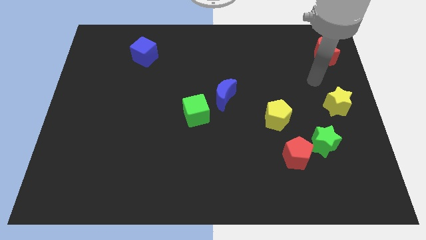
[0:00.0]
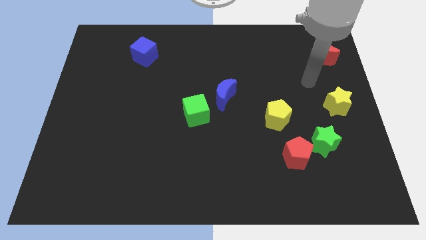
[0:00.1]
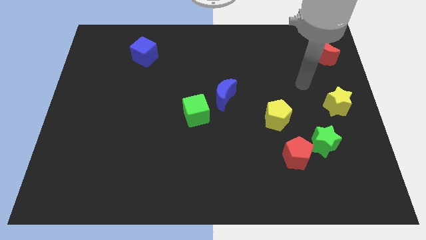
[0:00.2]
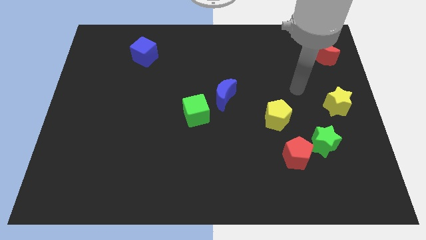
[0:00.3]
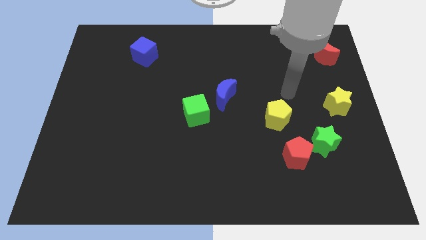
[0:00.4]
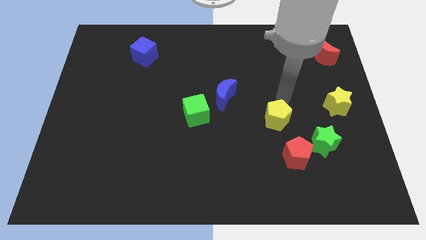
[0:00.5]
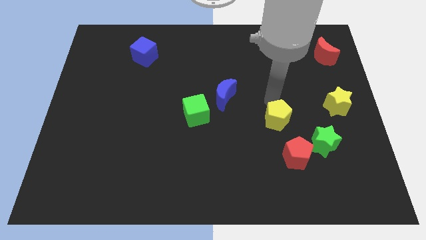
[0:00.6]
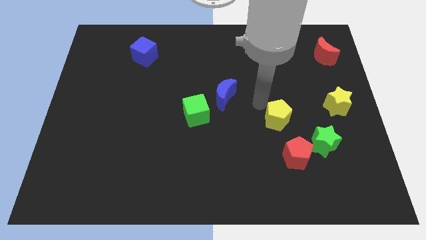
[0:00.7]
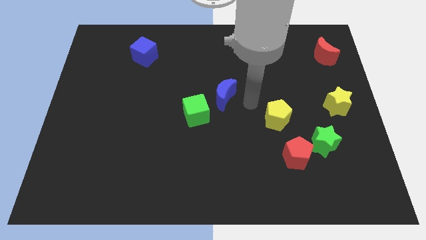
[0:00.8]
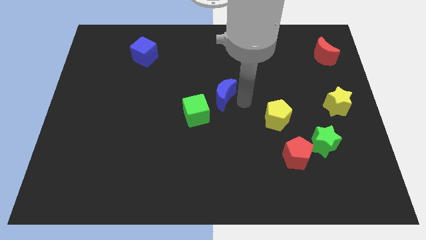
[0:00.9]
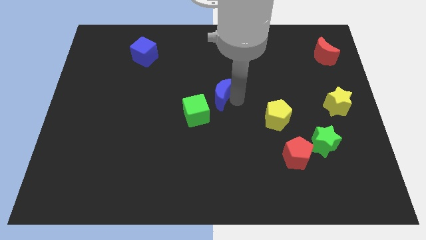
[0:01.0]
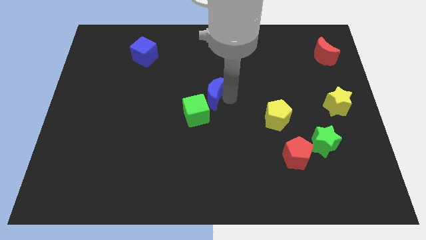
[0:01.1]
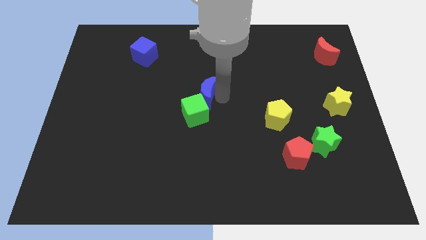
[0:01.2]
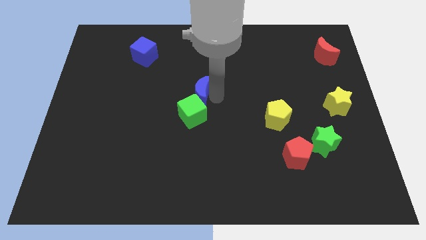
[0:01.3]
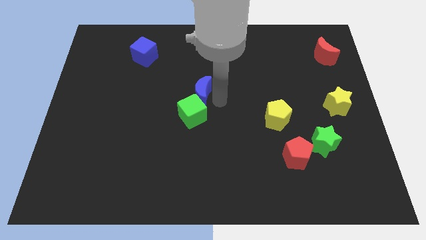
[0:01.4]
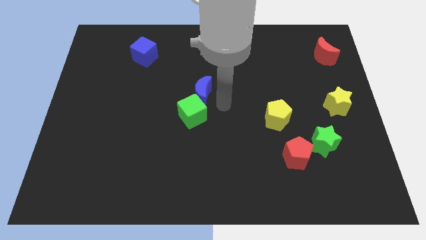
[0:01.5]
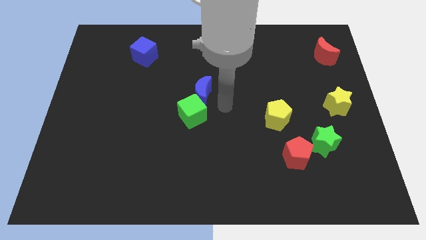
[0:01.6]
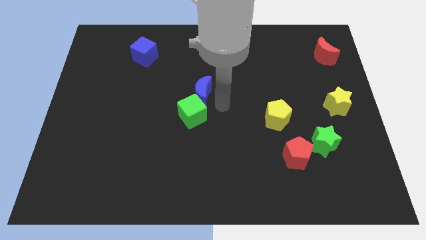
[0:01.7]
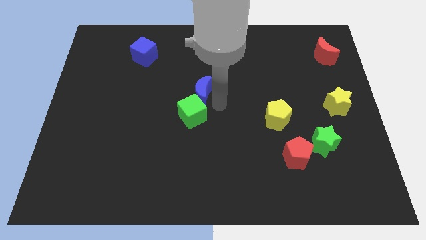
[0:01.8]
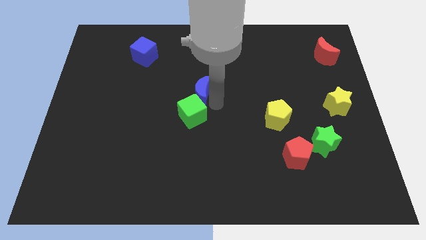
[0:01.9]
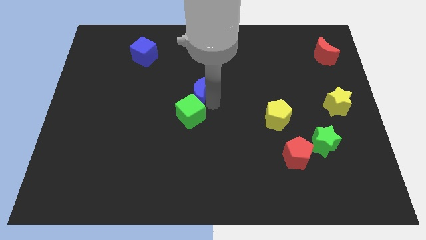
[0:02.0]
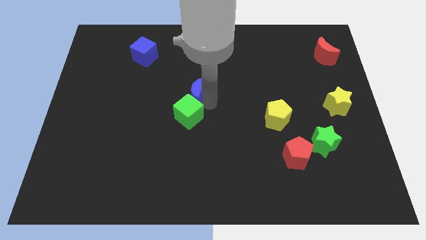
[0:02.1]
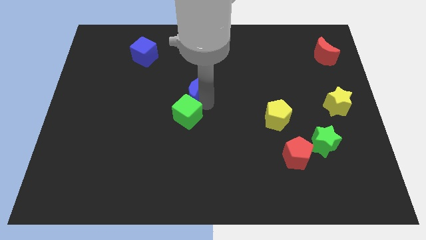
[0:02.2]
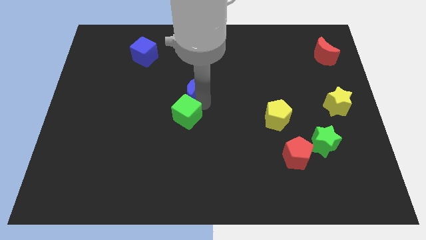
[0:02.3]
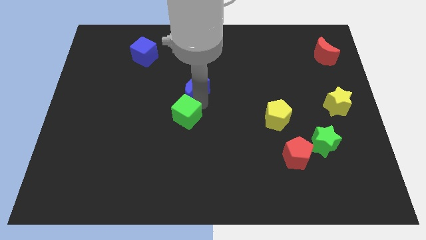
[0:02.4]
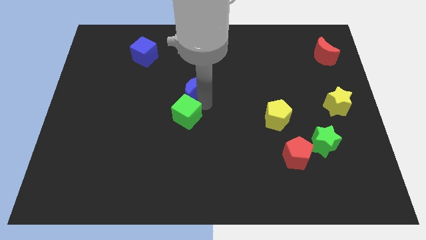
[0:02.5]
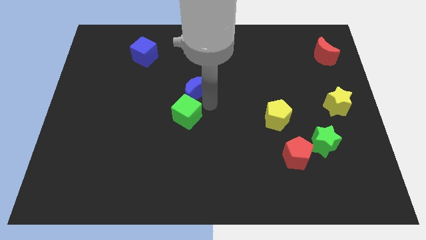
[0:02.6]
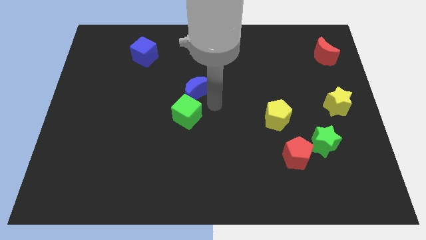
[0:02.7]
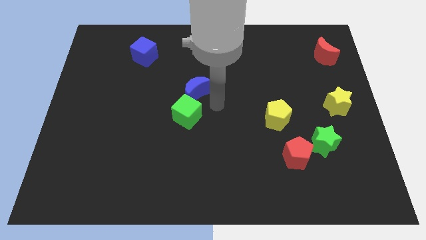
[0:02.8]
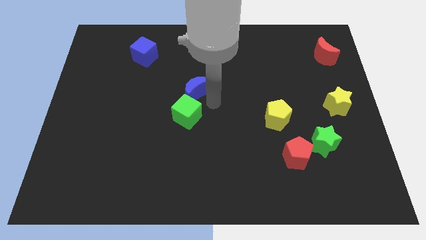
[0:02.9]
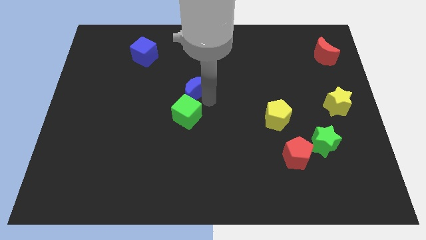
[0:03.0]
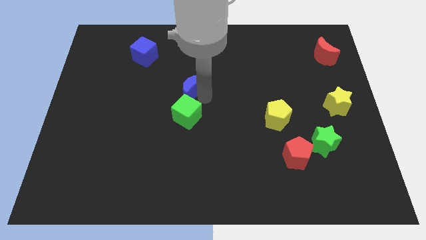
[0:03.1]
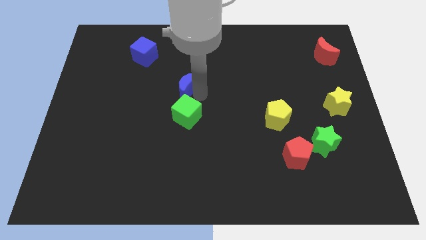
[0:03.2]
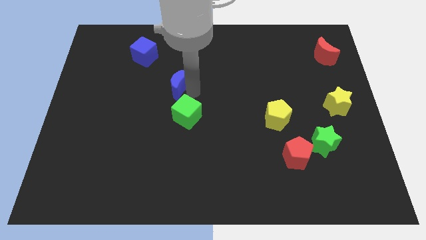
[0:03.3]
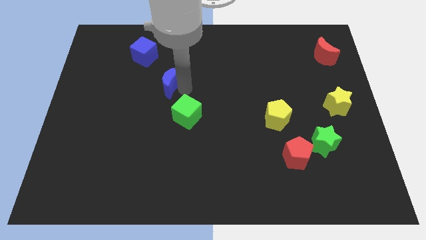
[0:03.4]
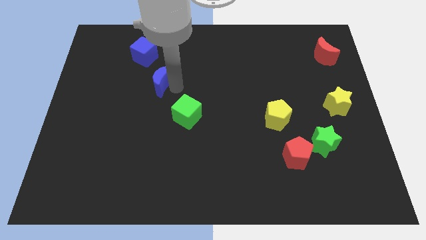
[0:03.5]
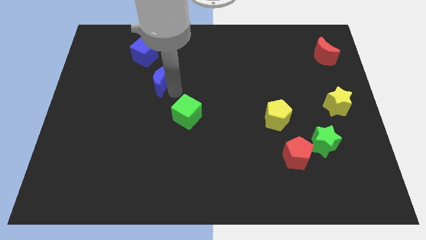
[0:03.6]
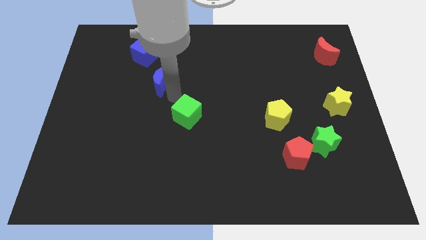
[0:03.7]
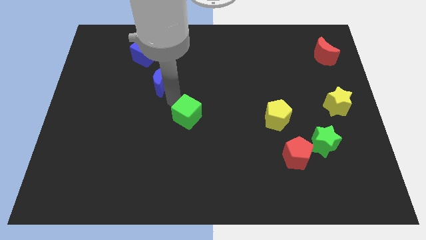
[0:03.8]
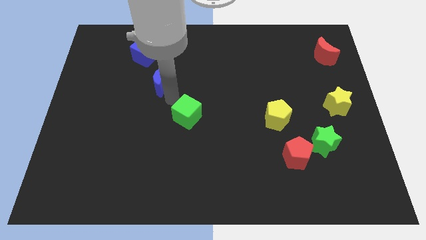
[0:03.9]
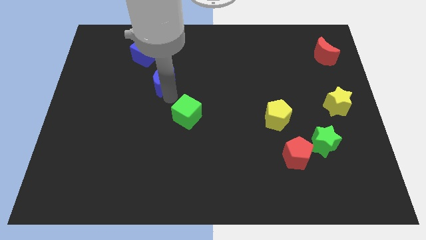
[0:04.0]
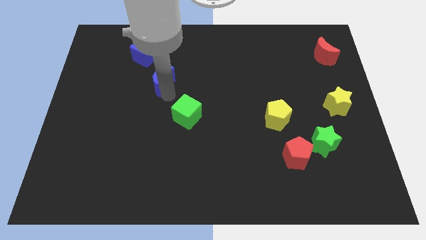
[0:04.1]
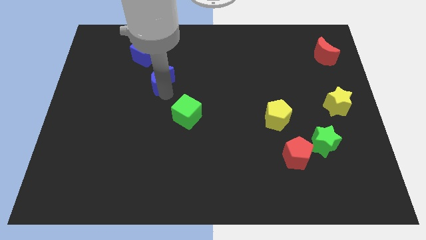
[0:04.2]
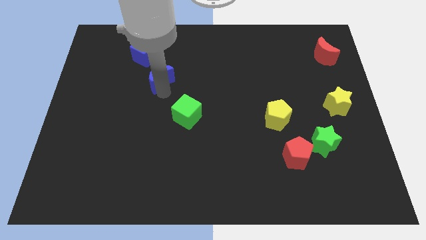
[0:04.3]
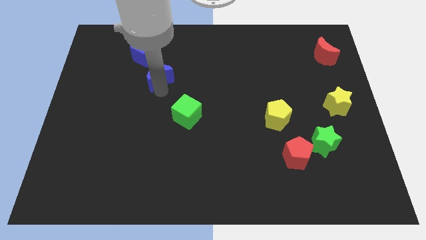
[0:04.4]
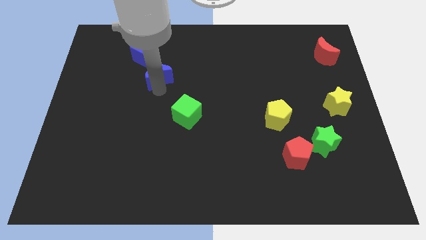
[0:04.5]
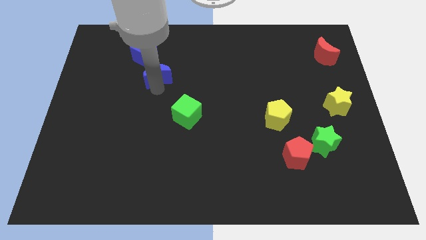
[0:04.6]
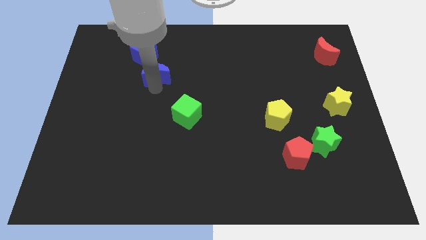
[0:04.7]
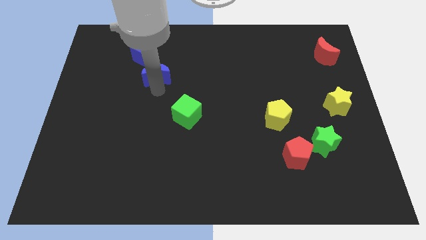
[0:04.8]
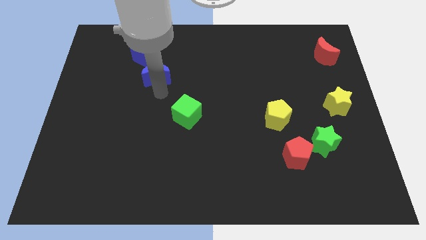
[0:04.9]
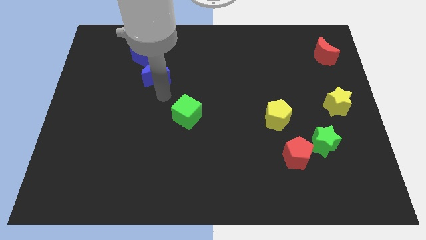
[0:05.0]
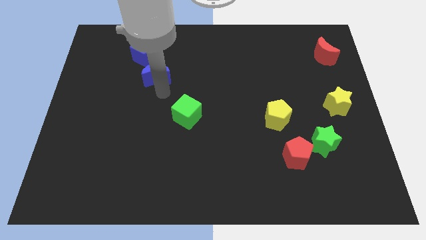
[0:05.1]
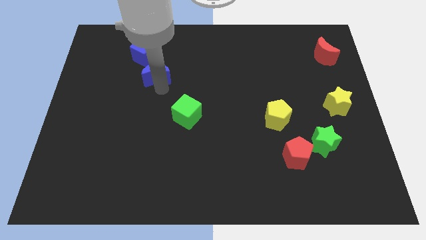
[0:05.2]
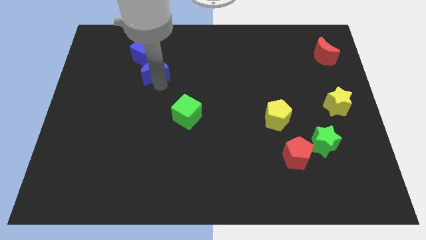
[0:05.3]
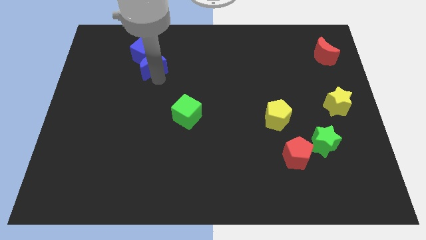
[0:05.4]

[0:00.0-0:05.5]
put the blue moon towards the blue cube

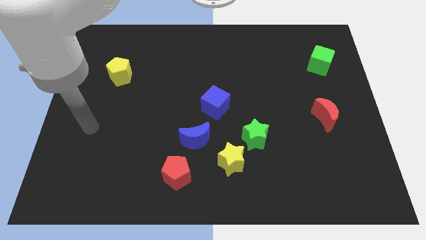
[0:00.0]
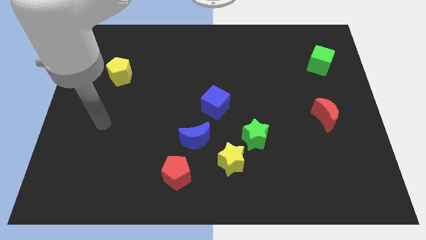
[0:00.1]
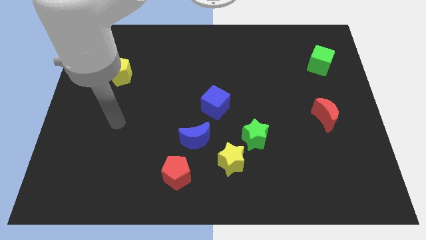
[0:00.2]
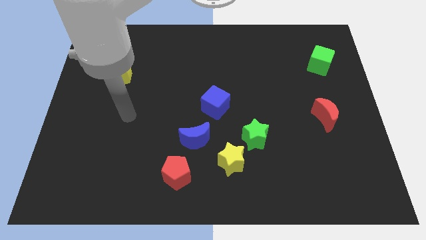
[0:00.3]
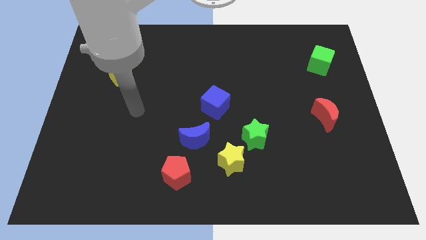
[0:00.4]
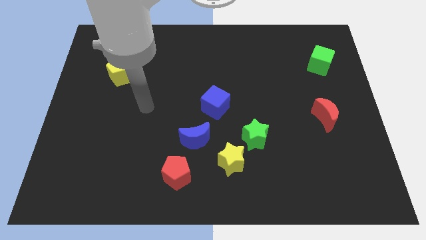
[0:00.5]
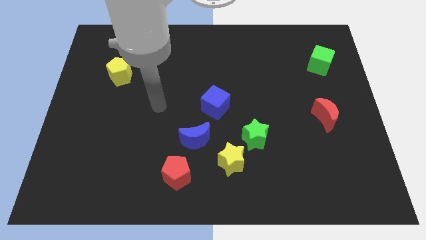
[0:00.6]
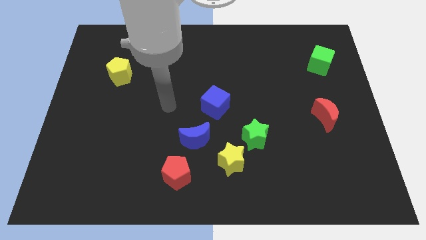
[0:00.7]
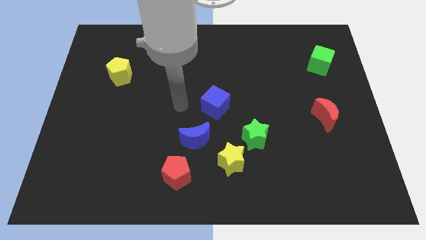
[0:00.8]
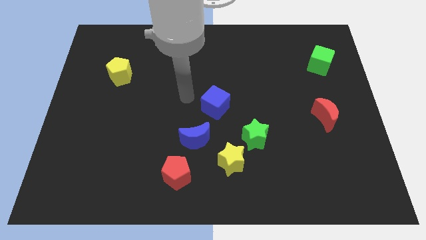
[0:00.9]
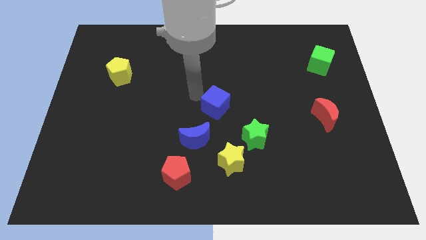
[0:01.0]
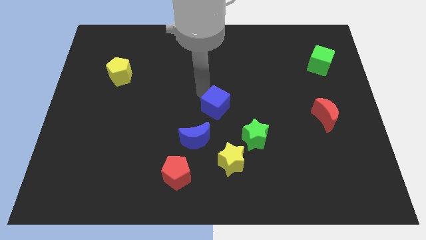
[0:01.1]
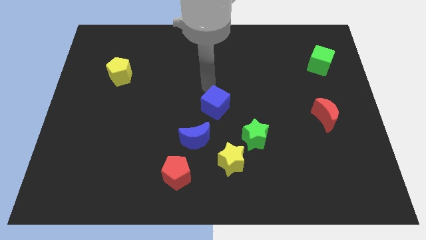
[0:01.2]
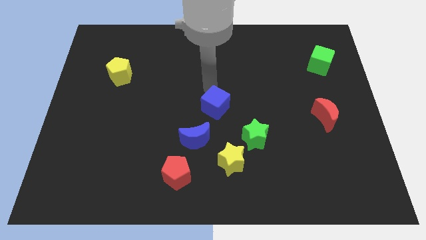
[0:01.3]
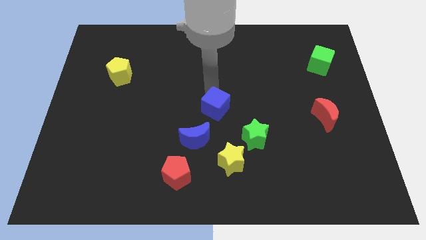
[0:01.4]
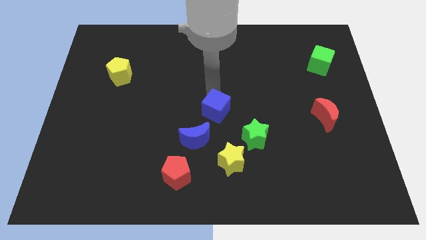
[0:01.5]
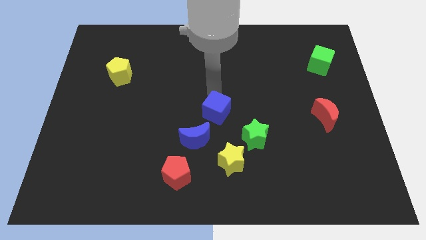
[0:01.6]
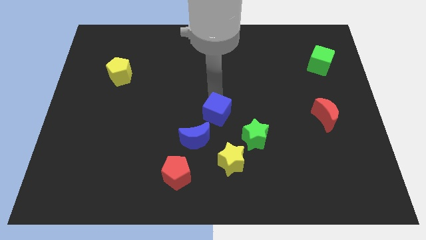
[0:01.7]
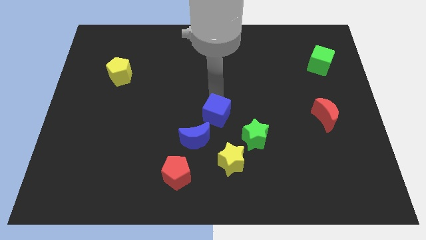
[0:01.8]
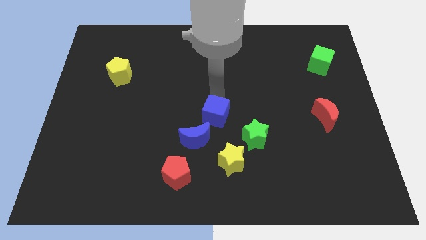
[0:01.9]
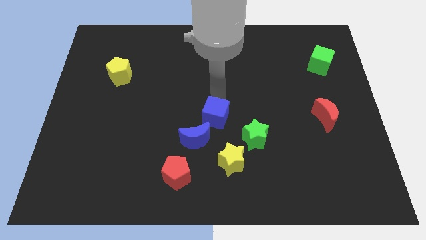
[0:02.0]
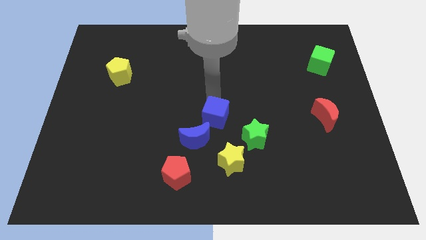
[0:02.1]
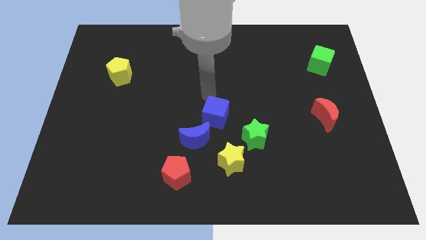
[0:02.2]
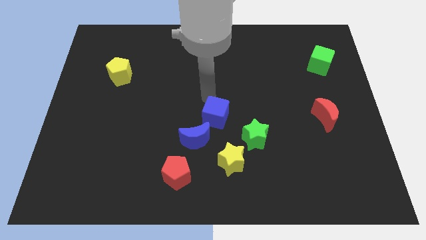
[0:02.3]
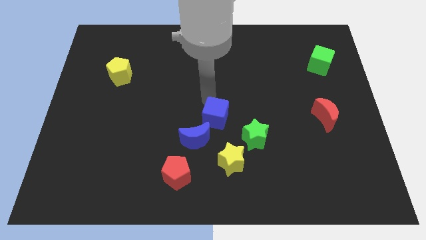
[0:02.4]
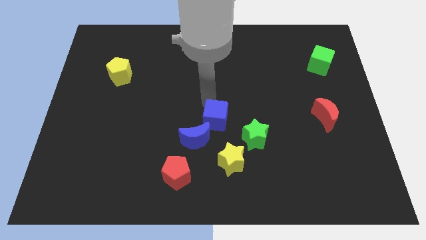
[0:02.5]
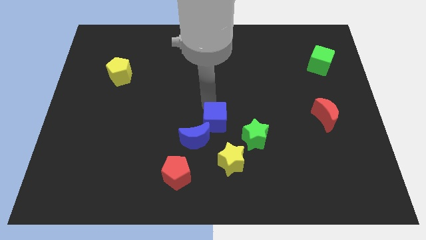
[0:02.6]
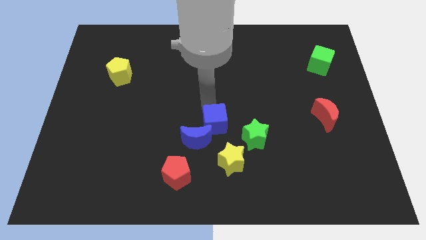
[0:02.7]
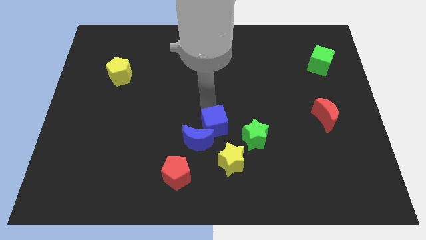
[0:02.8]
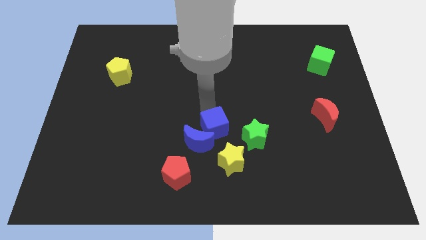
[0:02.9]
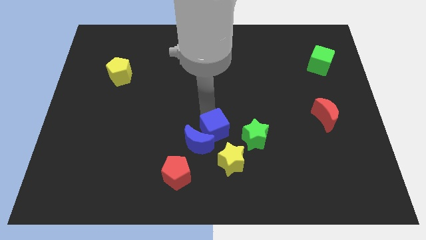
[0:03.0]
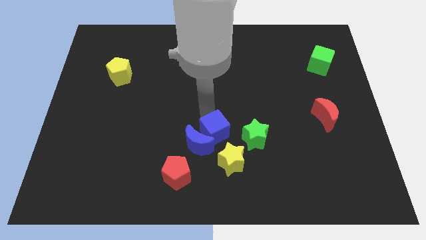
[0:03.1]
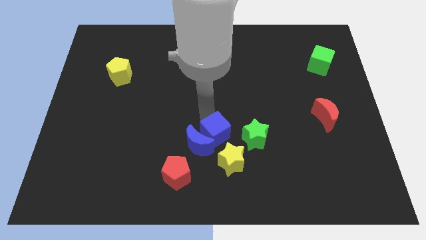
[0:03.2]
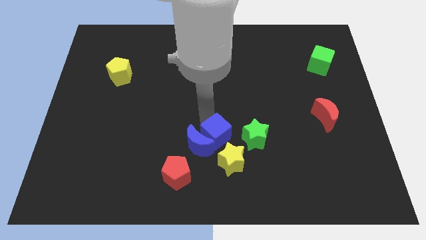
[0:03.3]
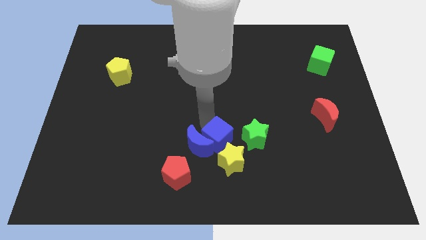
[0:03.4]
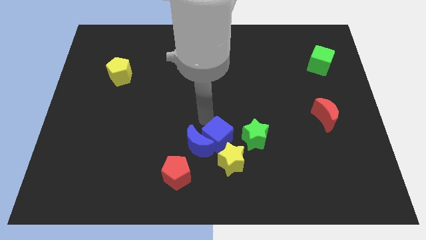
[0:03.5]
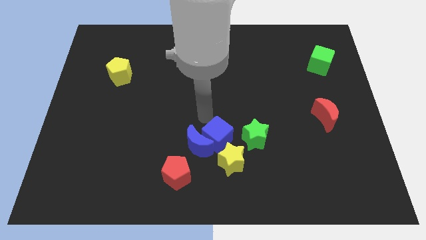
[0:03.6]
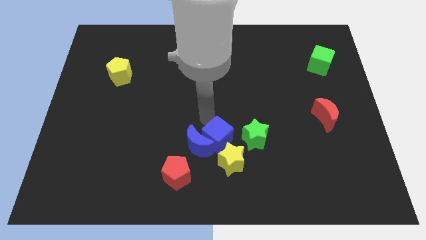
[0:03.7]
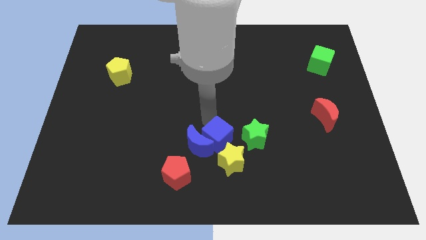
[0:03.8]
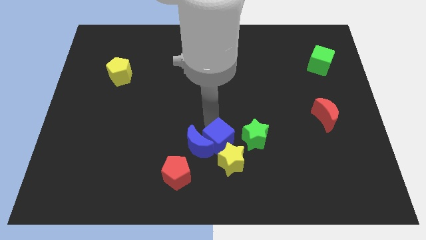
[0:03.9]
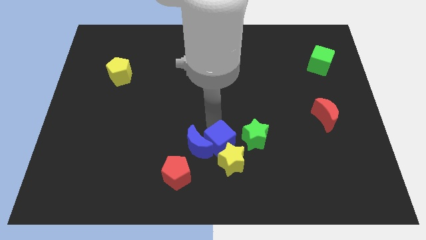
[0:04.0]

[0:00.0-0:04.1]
slide the blue cube towards the yellow star
